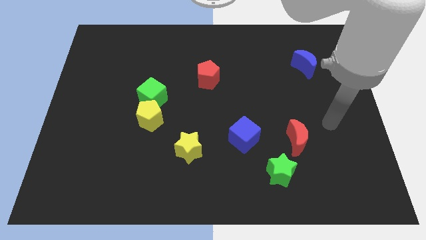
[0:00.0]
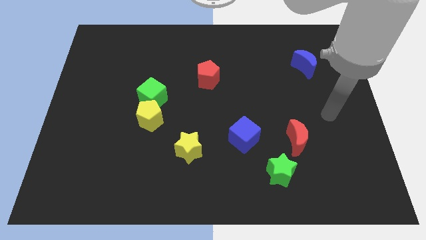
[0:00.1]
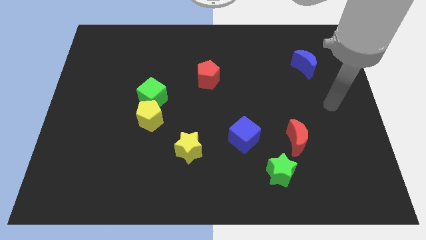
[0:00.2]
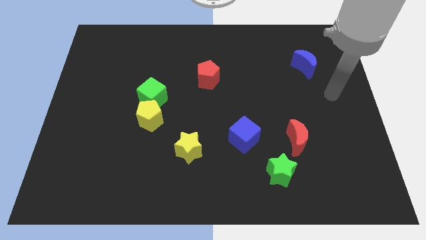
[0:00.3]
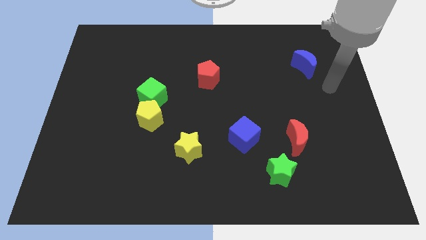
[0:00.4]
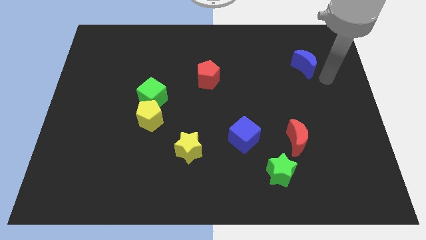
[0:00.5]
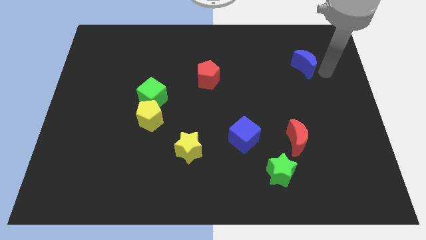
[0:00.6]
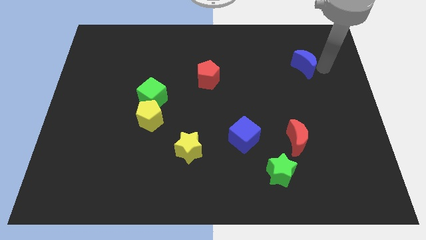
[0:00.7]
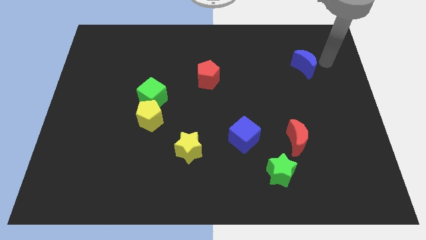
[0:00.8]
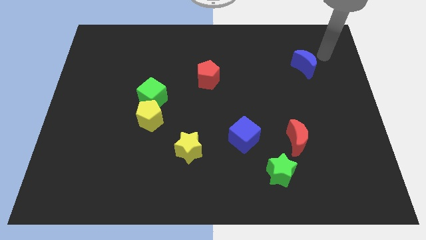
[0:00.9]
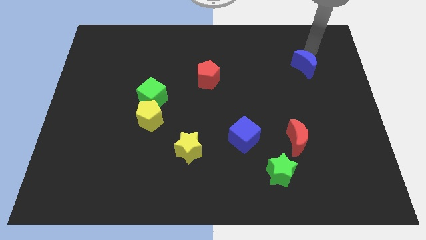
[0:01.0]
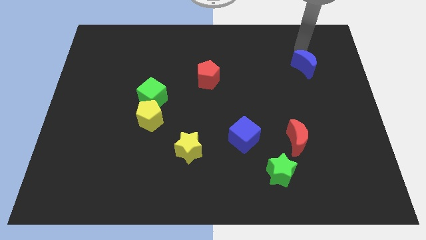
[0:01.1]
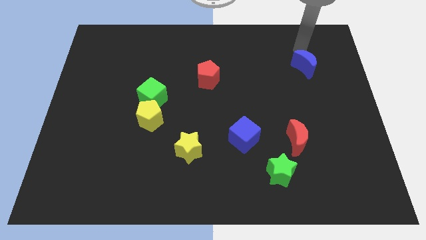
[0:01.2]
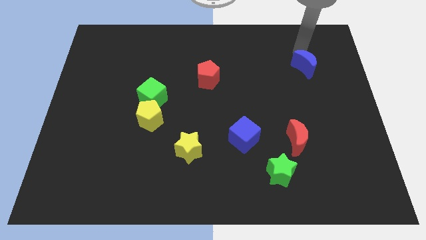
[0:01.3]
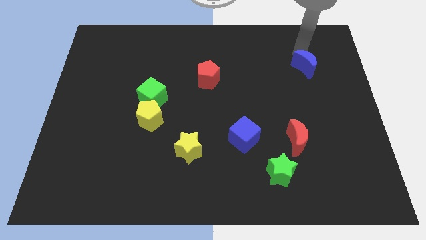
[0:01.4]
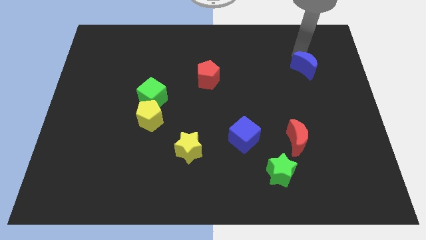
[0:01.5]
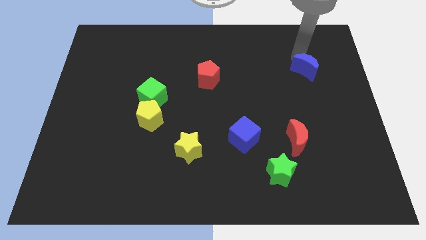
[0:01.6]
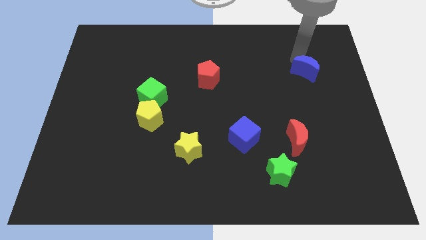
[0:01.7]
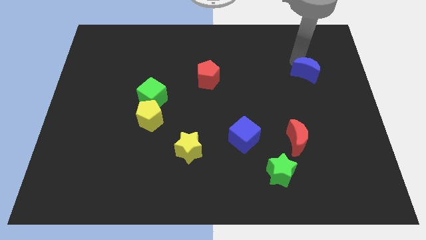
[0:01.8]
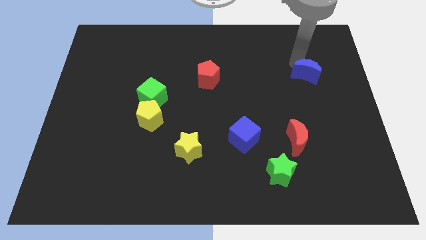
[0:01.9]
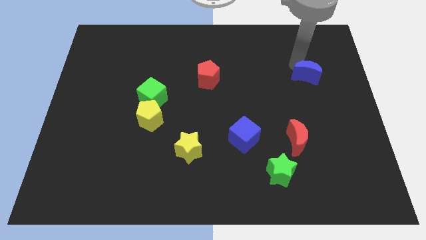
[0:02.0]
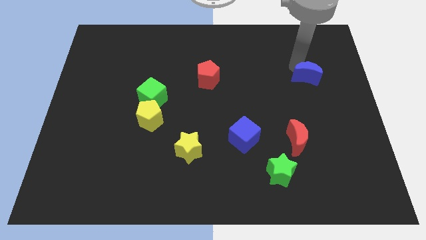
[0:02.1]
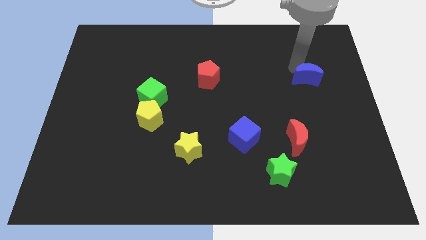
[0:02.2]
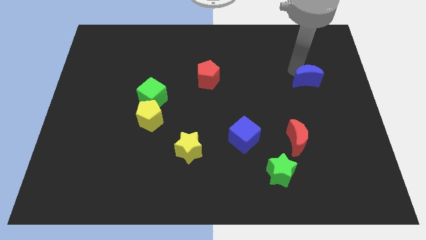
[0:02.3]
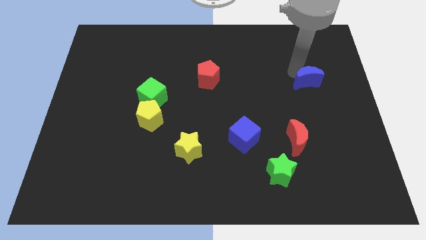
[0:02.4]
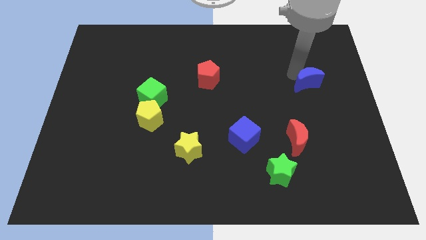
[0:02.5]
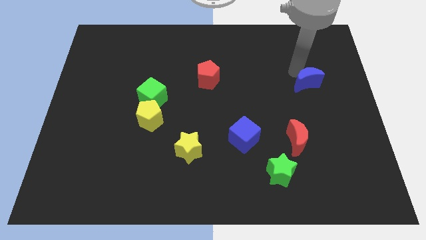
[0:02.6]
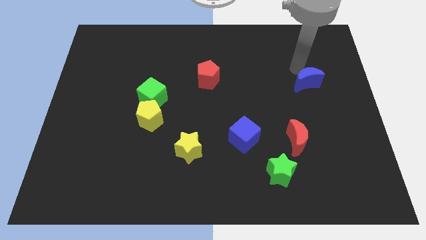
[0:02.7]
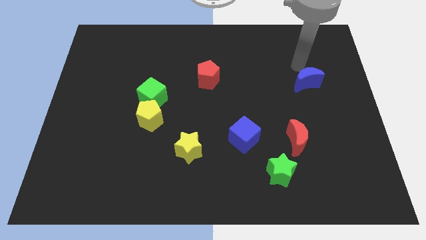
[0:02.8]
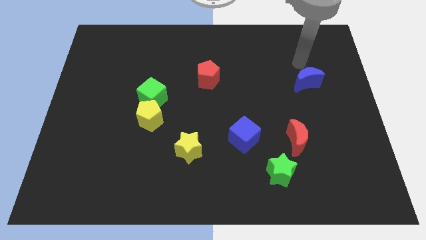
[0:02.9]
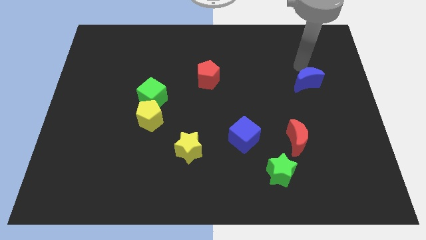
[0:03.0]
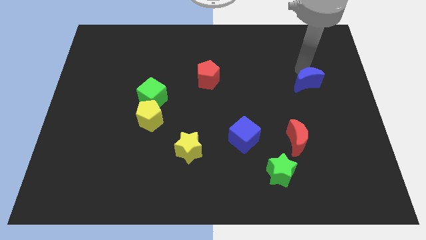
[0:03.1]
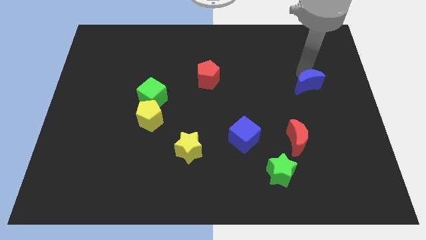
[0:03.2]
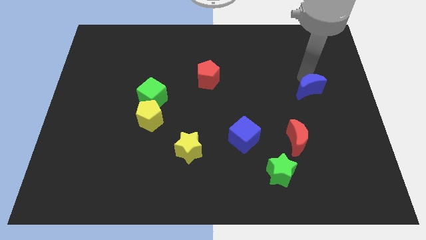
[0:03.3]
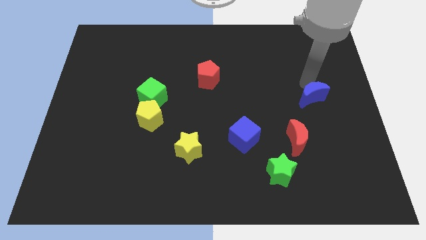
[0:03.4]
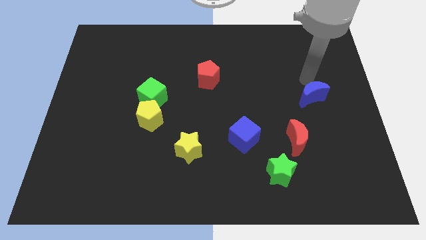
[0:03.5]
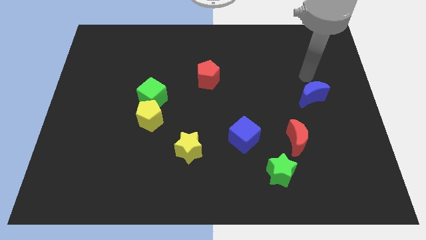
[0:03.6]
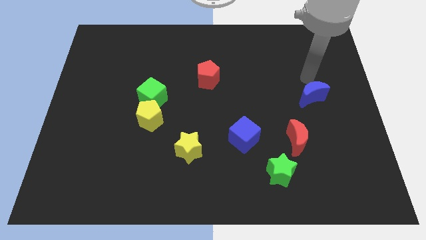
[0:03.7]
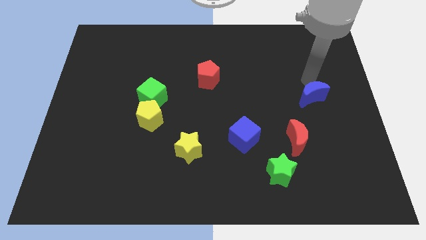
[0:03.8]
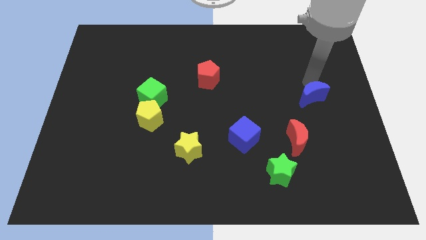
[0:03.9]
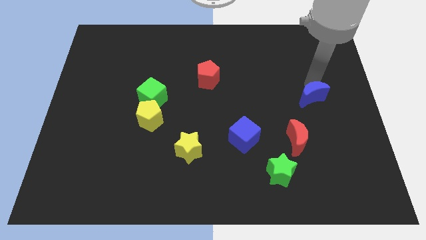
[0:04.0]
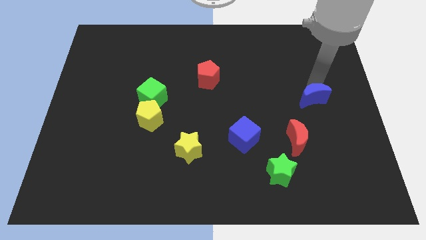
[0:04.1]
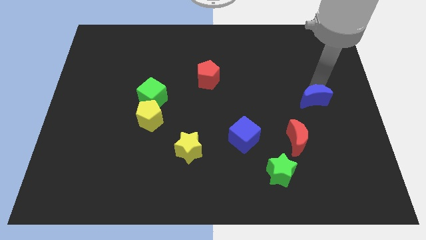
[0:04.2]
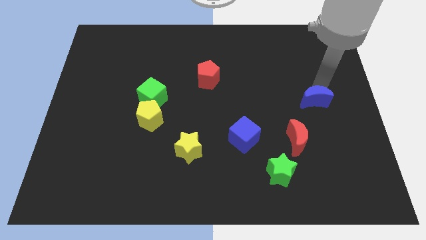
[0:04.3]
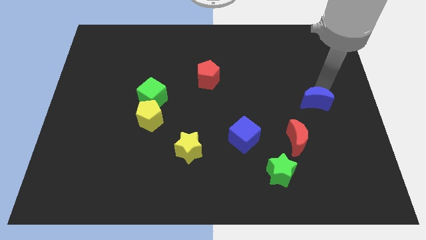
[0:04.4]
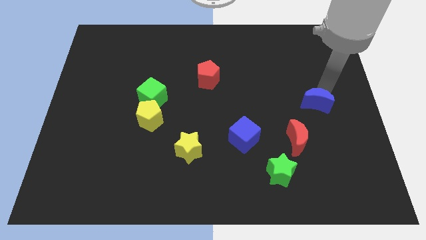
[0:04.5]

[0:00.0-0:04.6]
push the blue moon to the top right side of the red moon

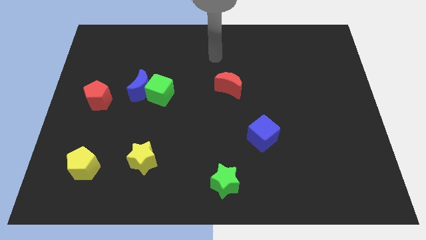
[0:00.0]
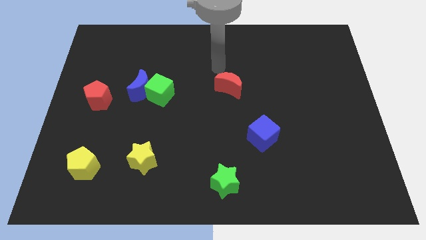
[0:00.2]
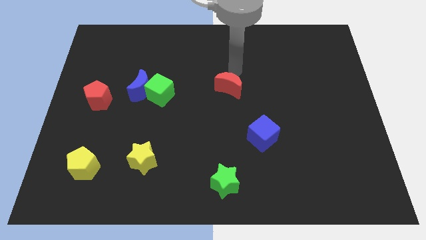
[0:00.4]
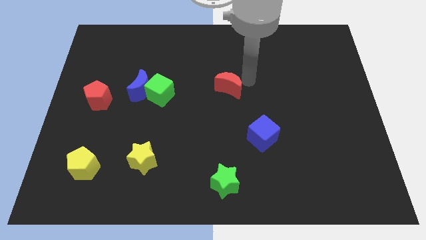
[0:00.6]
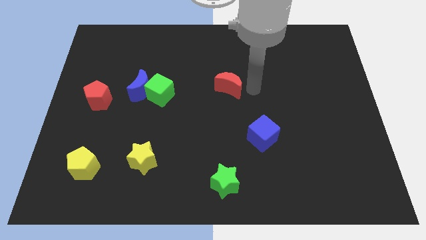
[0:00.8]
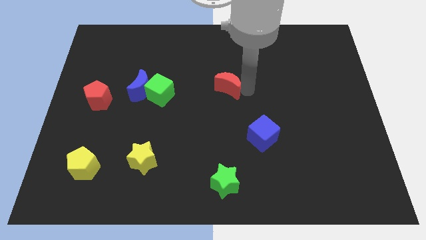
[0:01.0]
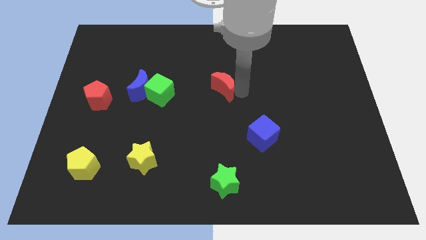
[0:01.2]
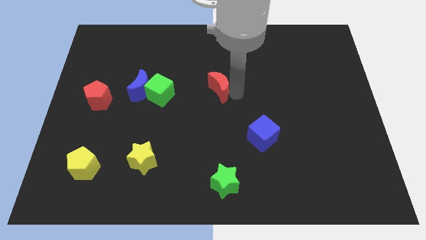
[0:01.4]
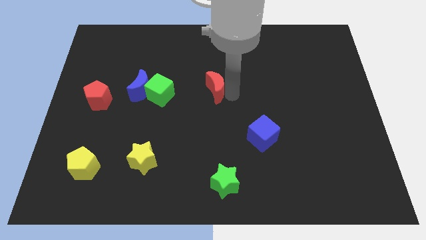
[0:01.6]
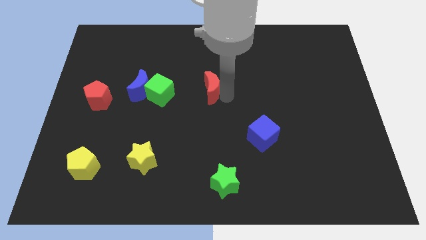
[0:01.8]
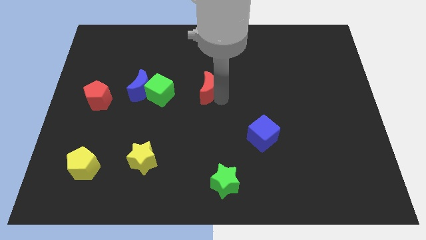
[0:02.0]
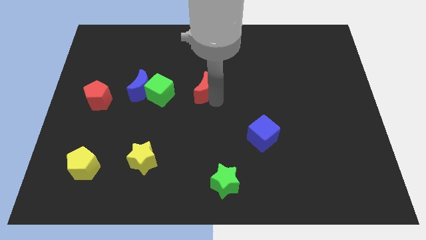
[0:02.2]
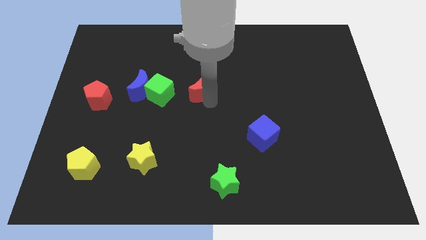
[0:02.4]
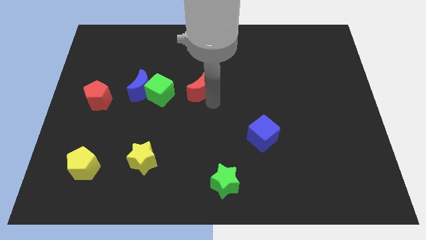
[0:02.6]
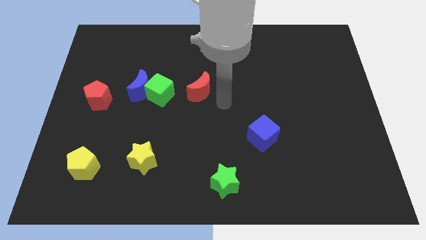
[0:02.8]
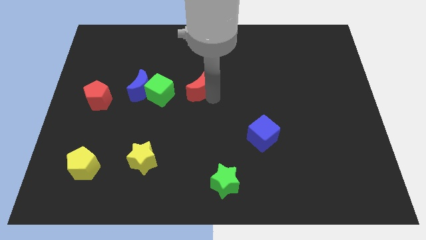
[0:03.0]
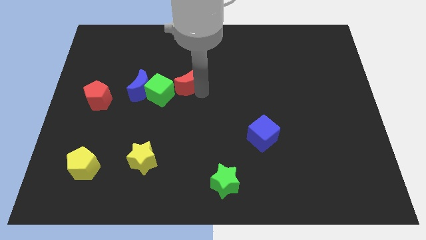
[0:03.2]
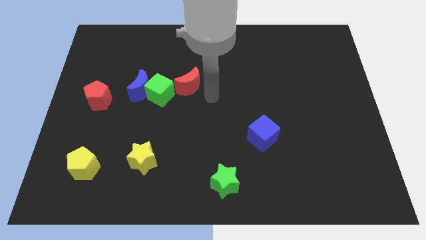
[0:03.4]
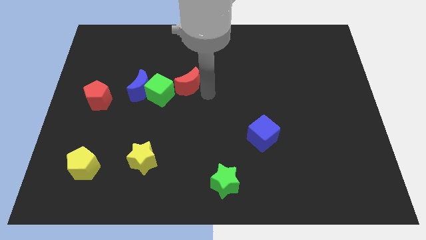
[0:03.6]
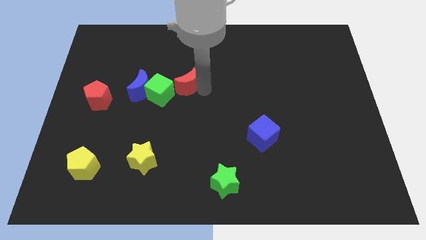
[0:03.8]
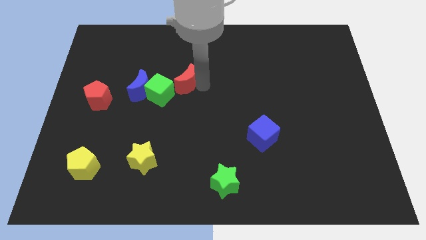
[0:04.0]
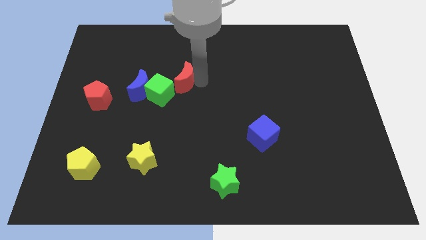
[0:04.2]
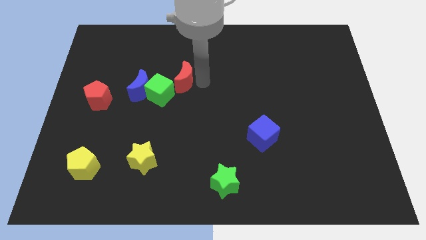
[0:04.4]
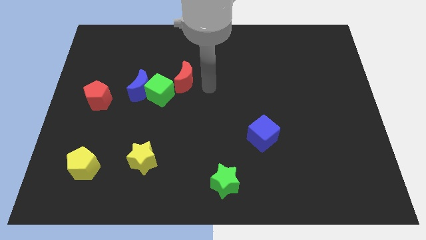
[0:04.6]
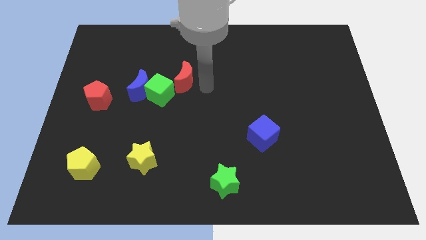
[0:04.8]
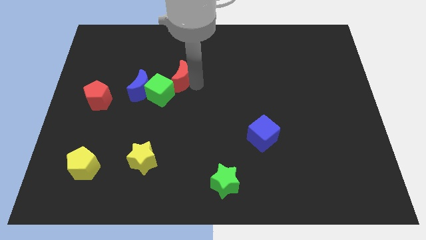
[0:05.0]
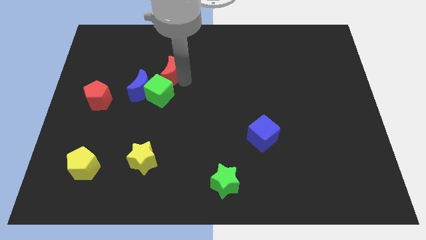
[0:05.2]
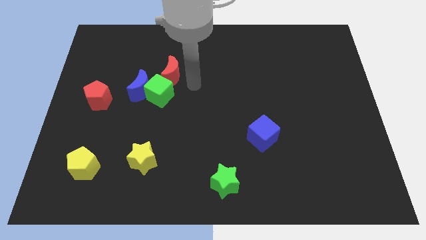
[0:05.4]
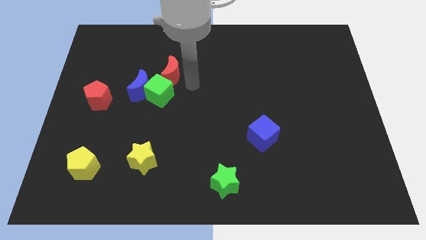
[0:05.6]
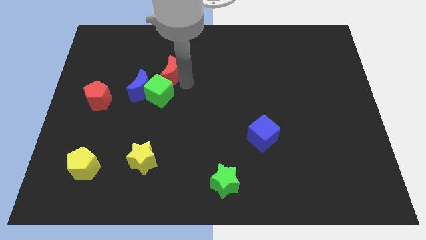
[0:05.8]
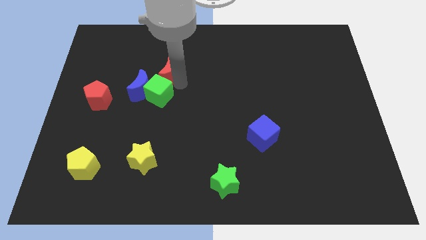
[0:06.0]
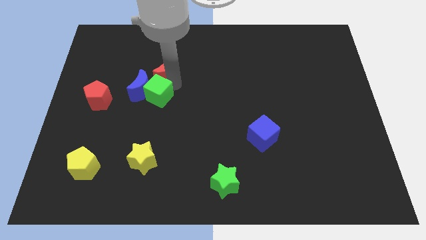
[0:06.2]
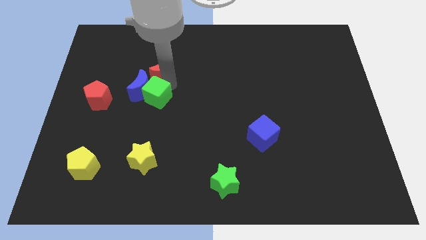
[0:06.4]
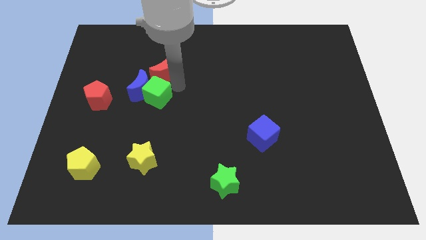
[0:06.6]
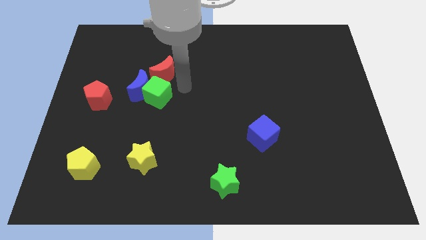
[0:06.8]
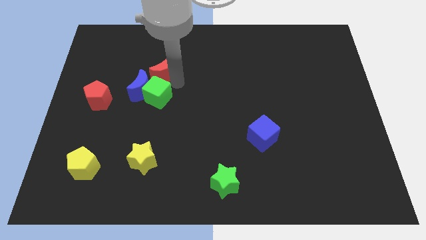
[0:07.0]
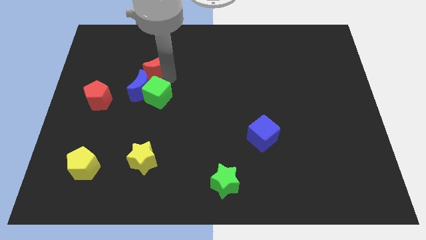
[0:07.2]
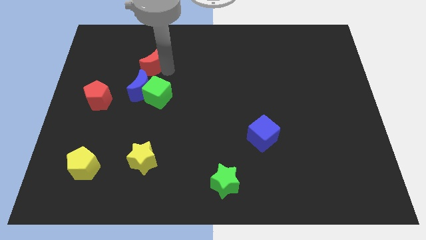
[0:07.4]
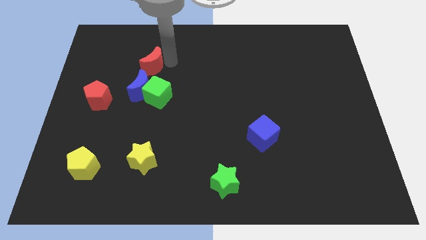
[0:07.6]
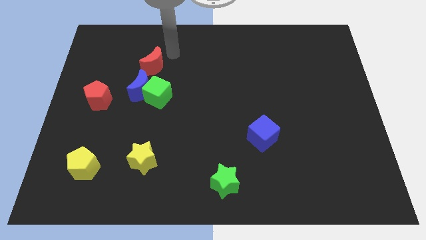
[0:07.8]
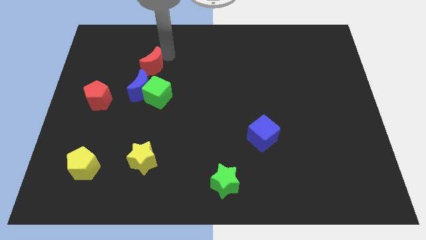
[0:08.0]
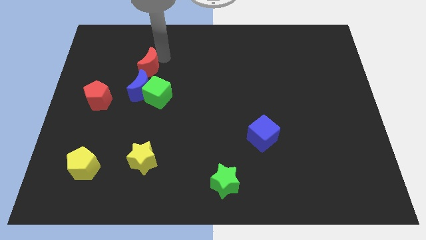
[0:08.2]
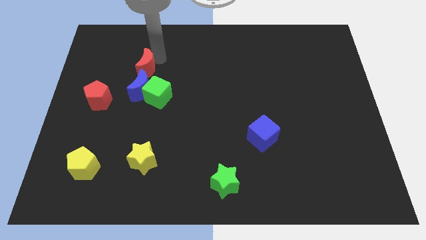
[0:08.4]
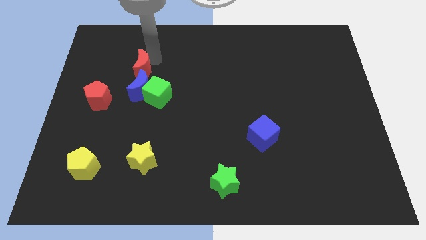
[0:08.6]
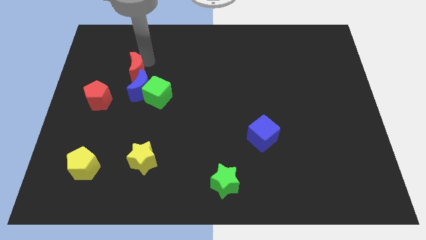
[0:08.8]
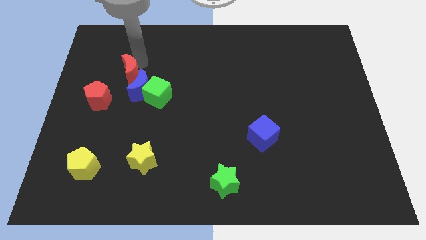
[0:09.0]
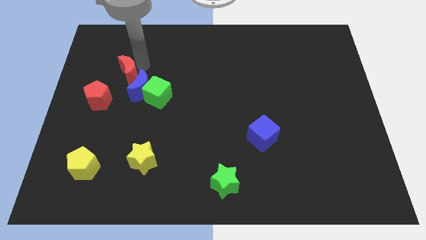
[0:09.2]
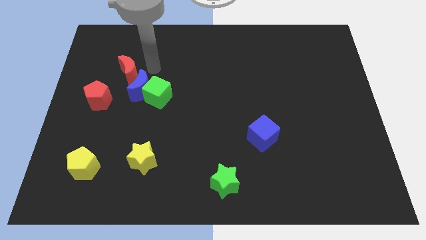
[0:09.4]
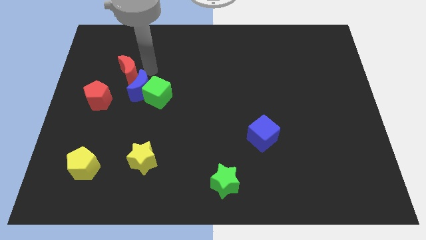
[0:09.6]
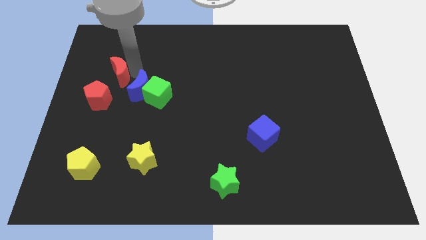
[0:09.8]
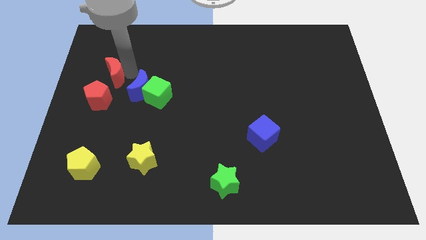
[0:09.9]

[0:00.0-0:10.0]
slide the red moon to the left side of the blue moon
